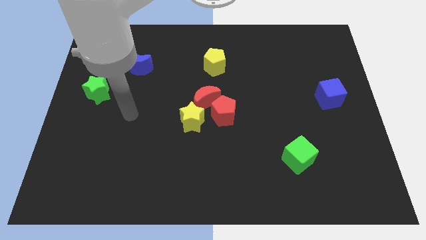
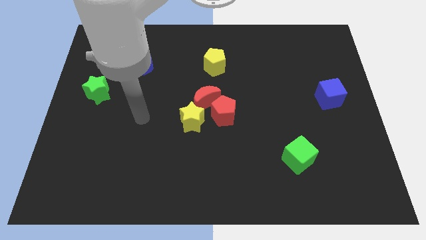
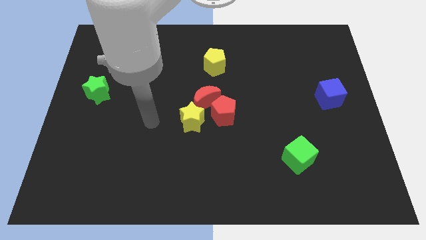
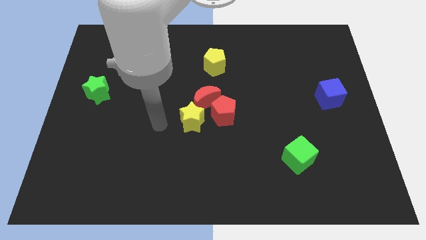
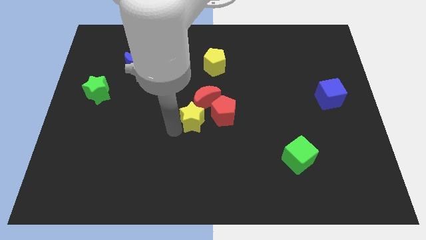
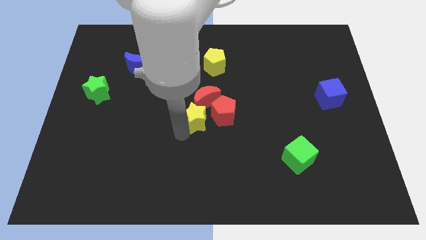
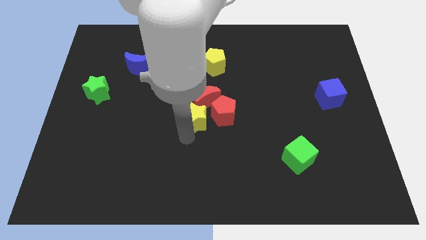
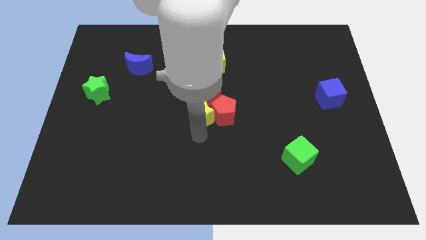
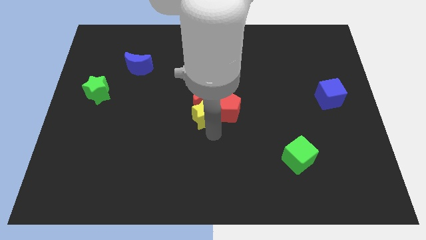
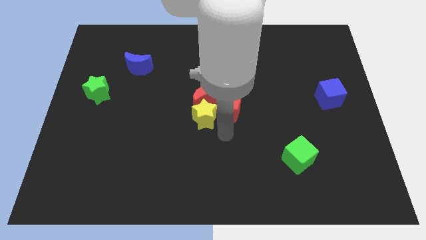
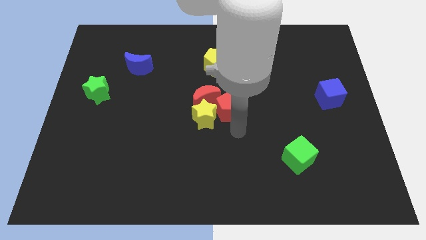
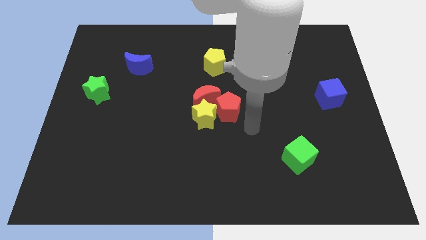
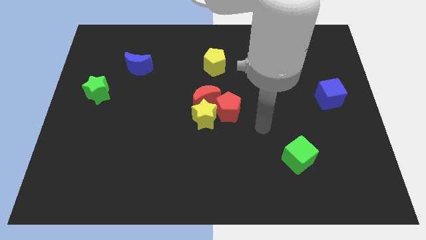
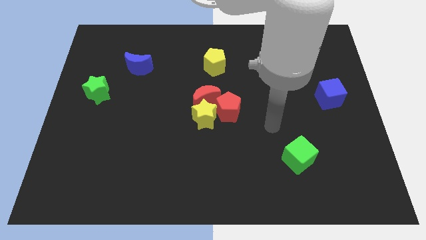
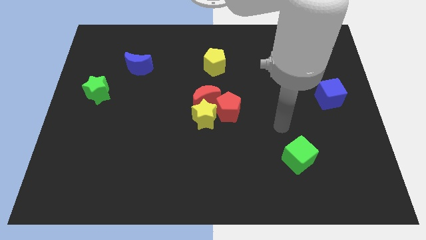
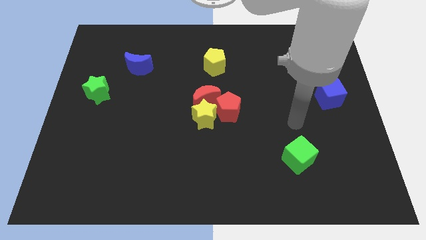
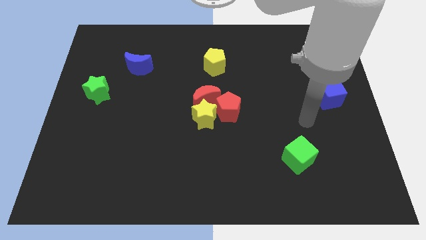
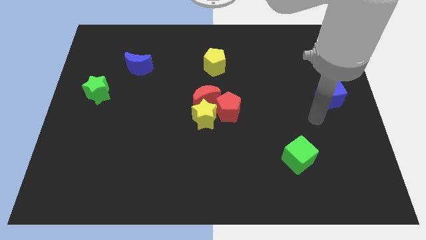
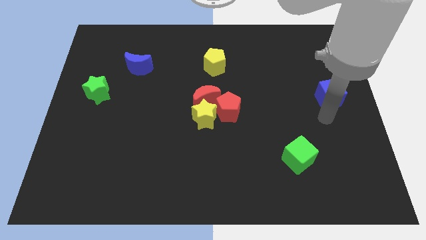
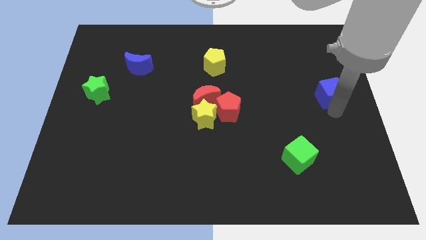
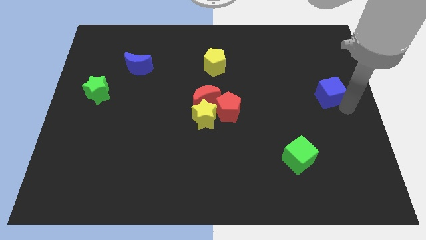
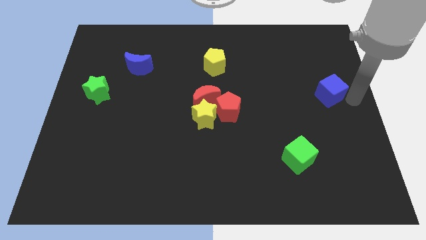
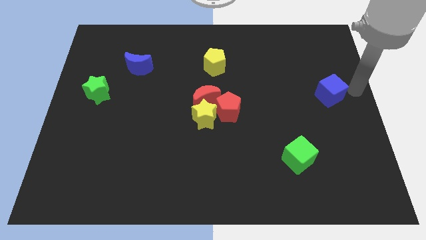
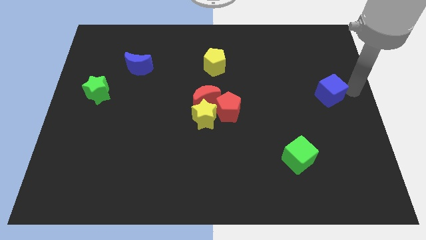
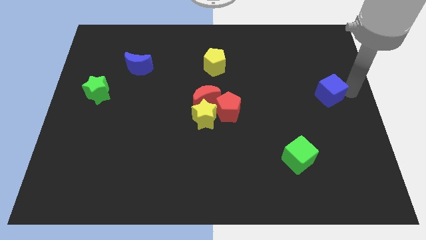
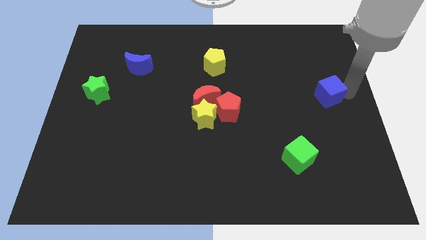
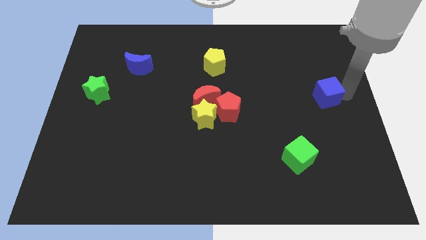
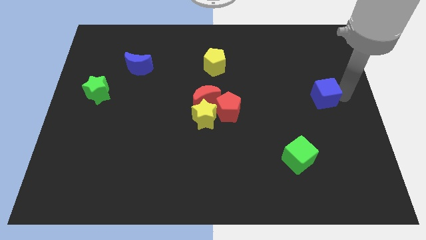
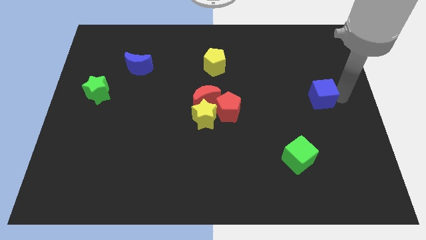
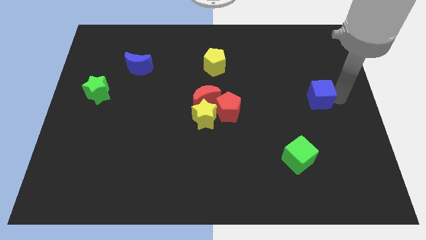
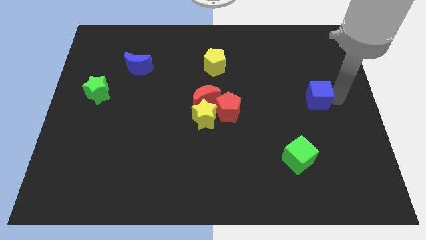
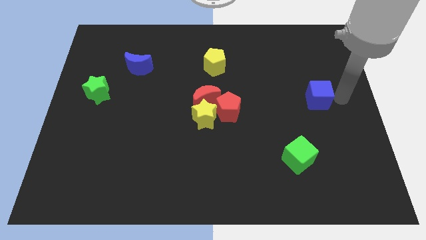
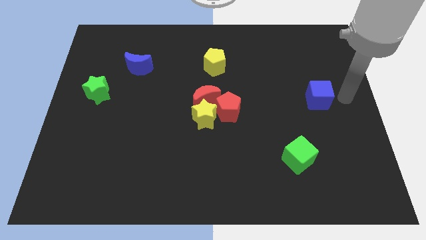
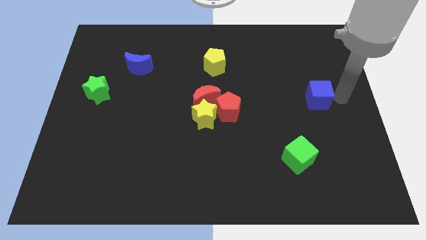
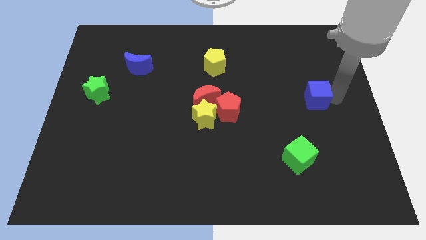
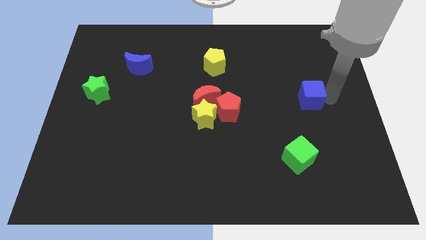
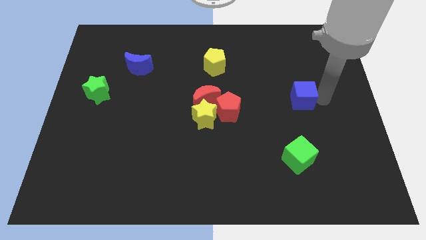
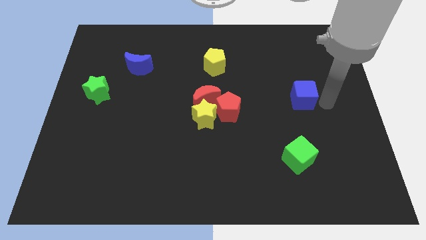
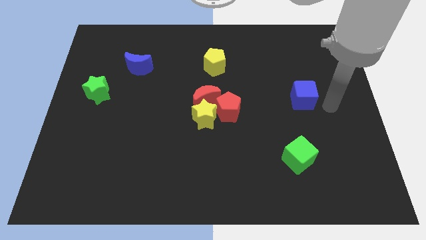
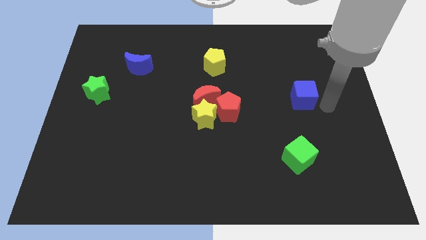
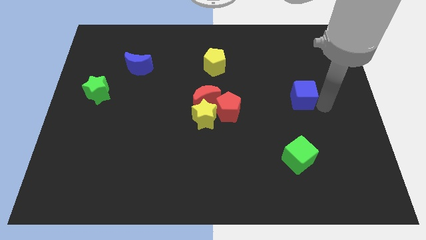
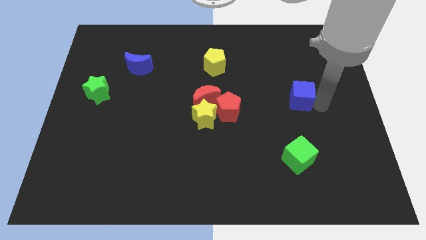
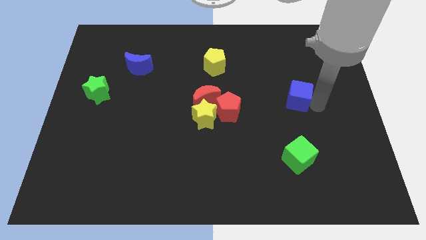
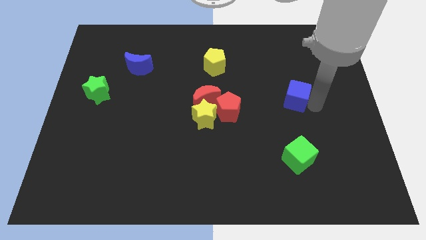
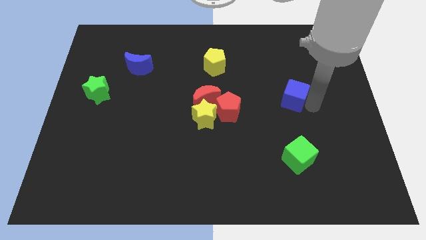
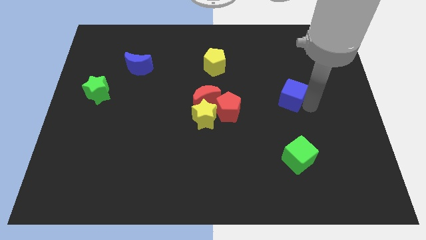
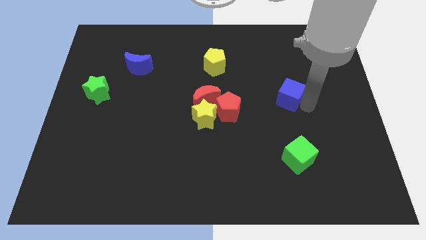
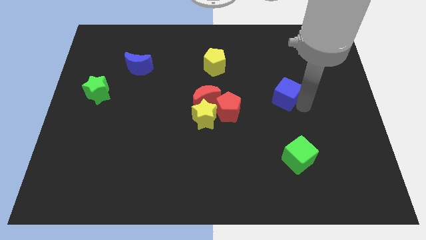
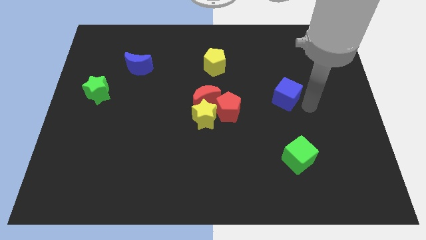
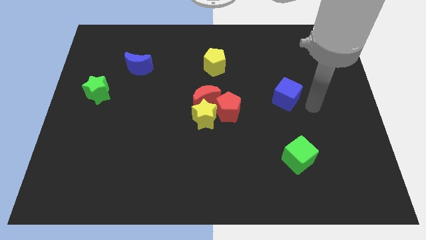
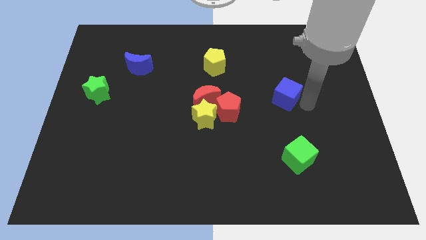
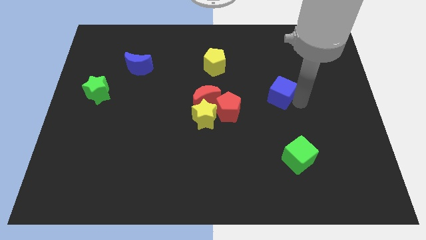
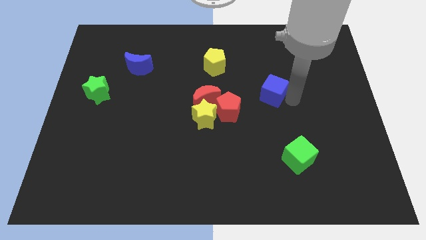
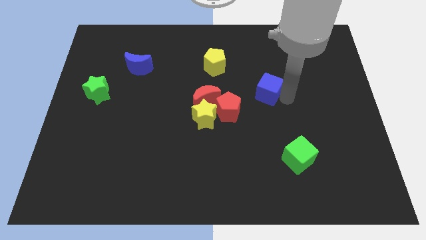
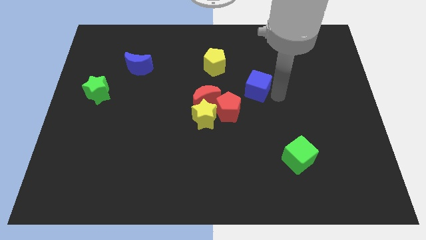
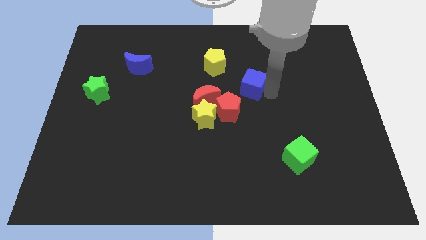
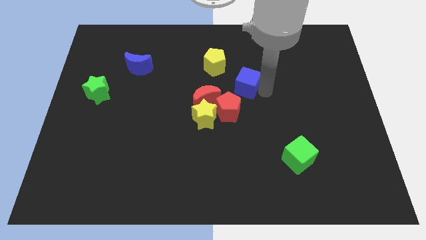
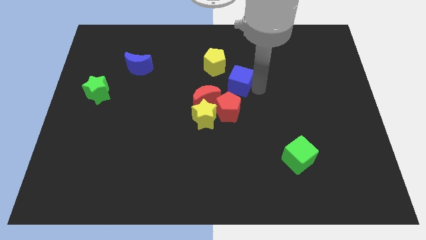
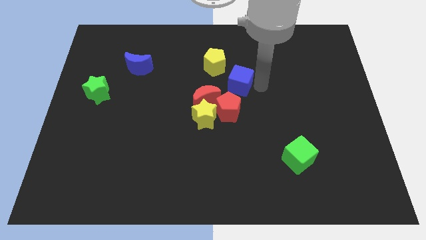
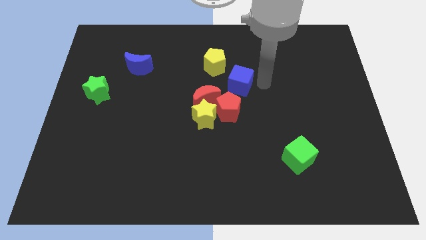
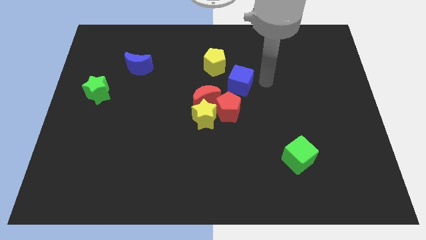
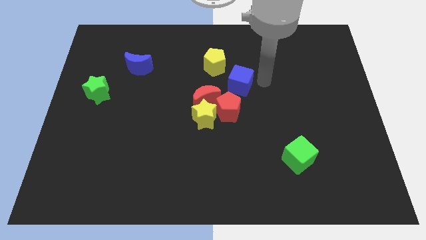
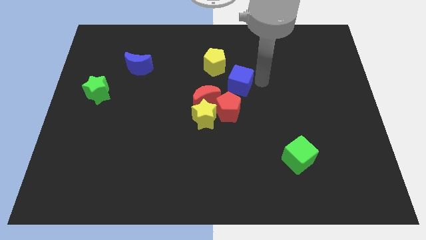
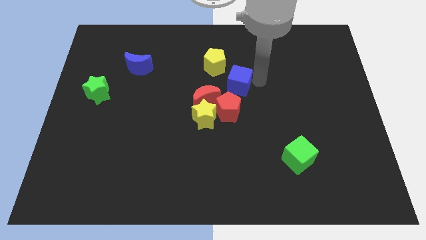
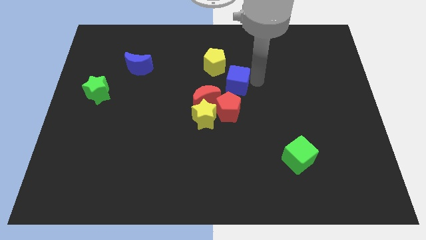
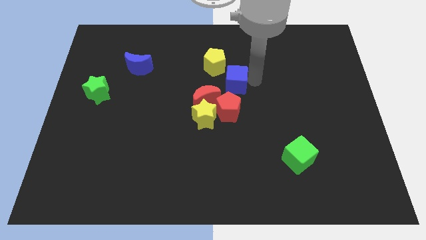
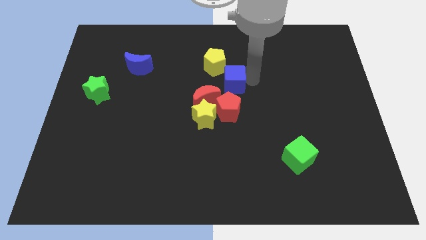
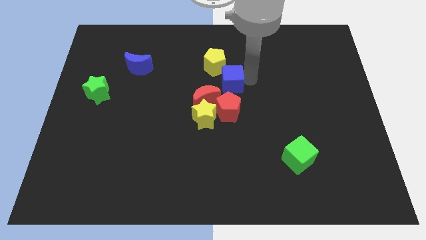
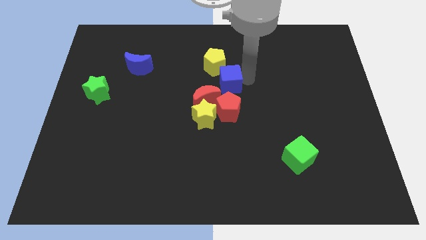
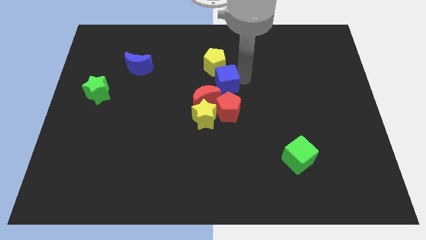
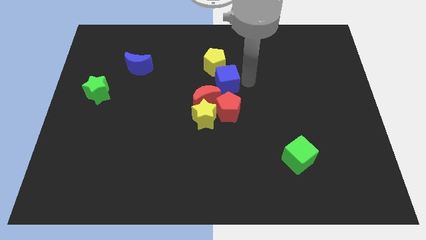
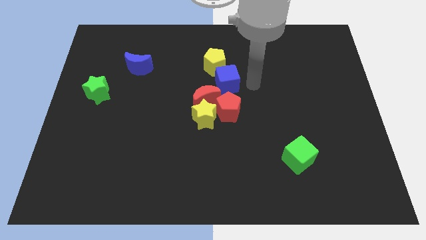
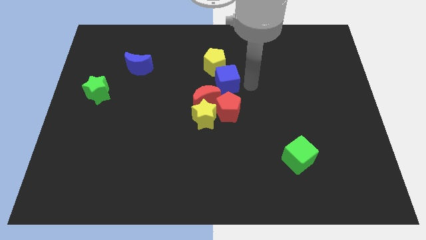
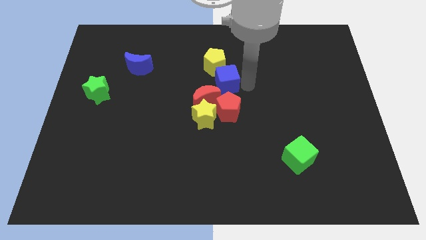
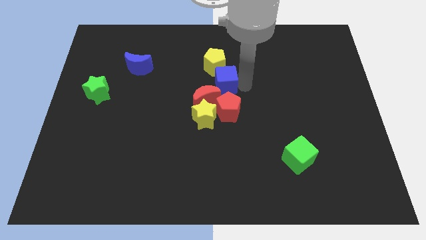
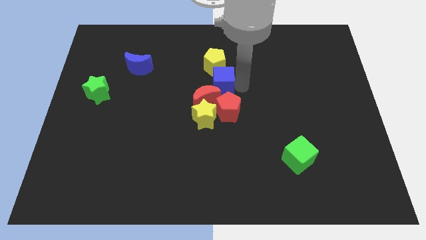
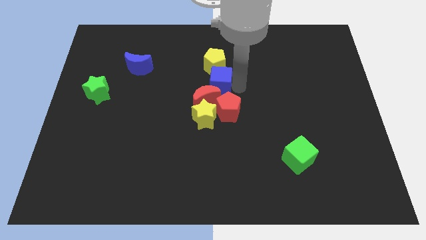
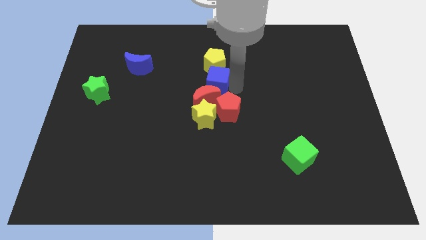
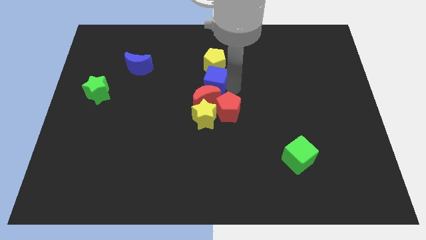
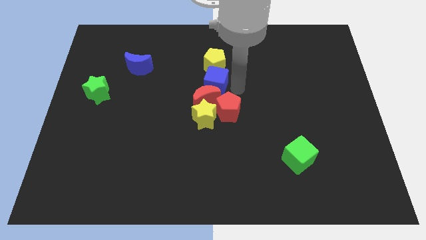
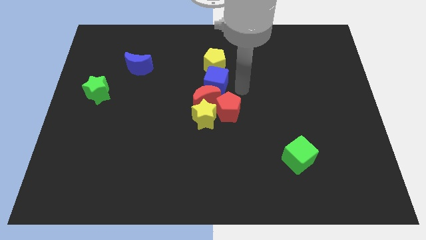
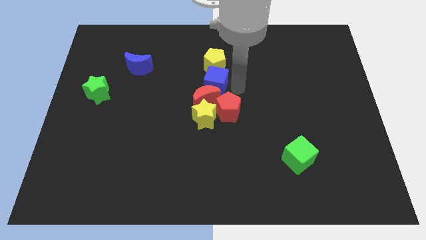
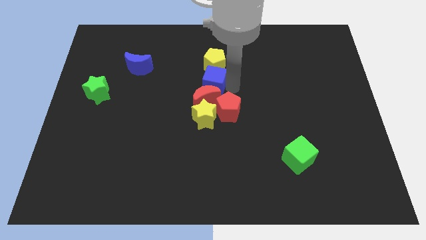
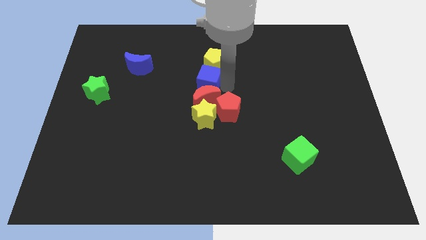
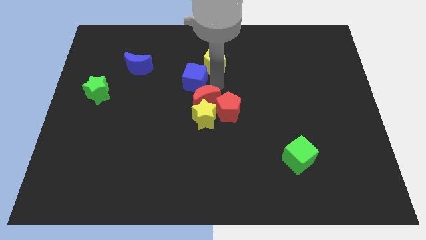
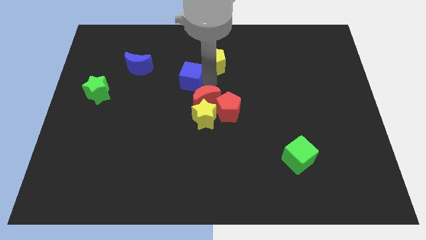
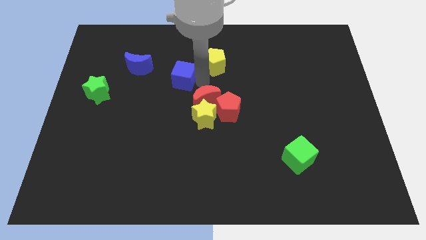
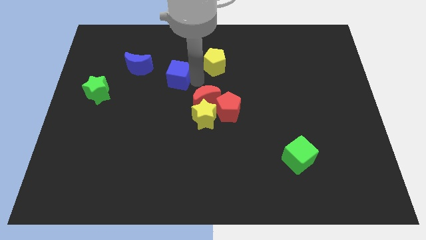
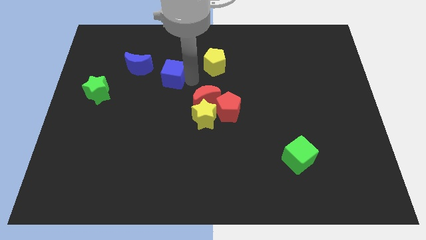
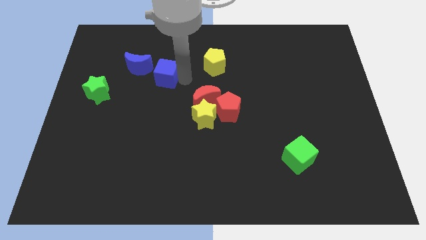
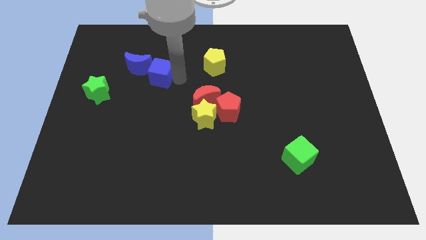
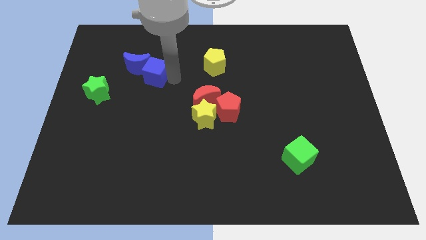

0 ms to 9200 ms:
push the blue cube close to the blue moon
